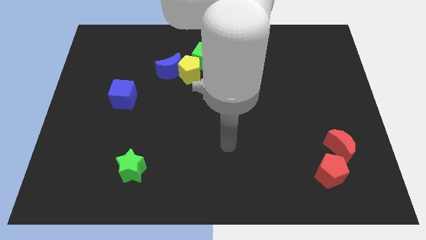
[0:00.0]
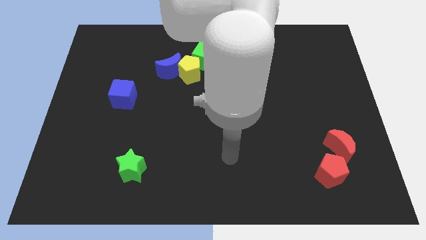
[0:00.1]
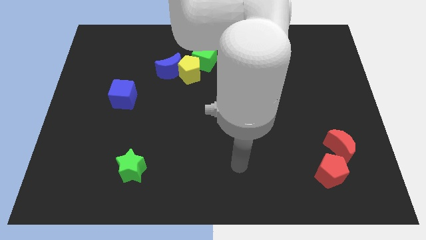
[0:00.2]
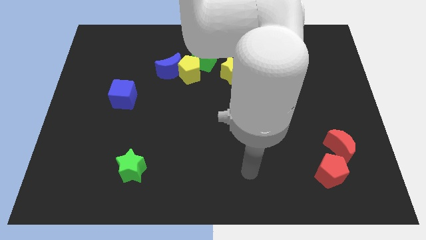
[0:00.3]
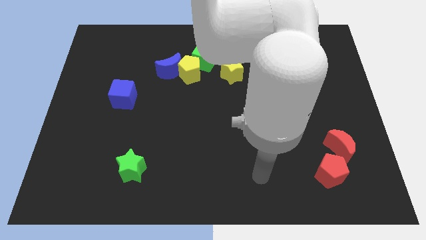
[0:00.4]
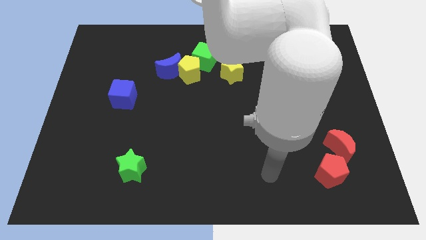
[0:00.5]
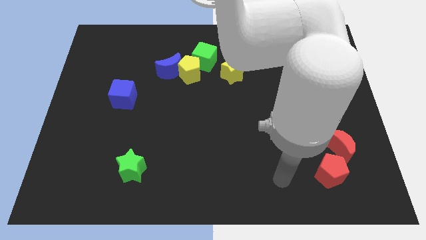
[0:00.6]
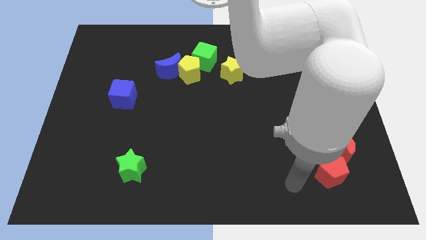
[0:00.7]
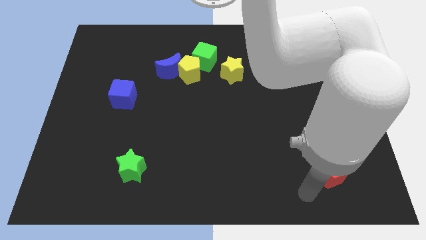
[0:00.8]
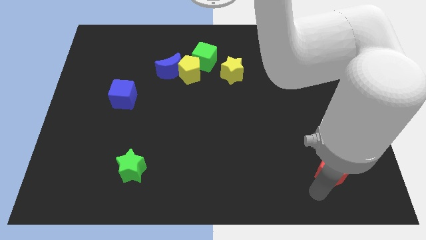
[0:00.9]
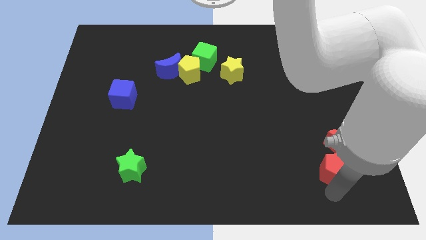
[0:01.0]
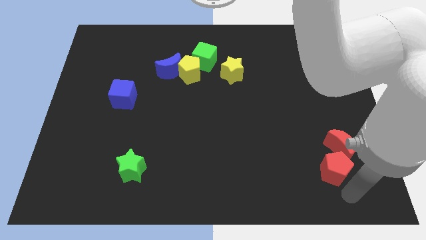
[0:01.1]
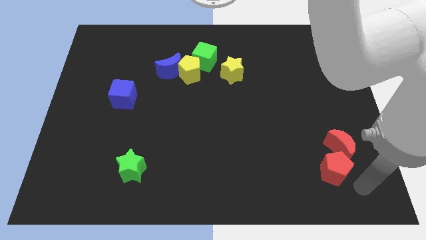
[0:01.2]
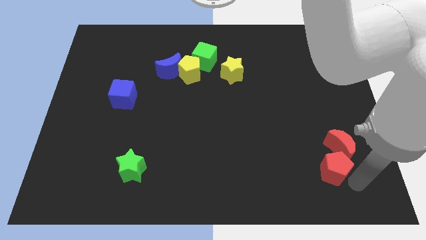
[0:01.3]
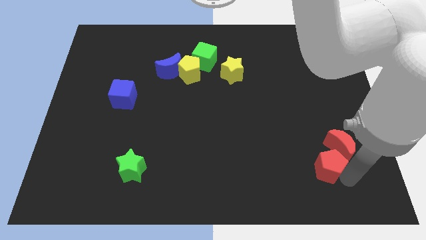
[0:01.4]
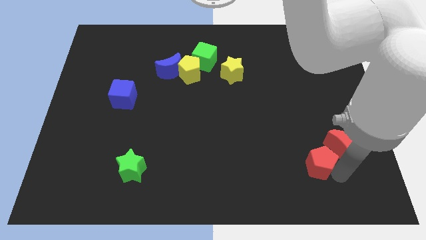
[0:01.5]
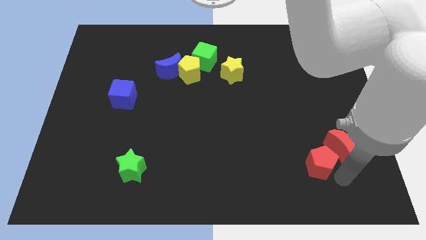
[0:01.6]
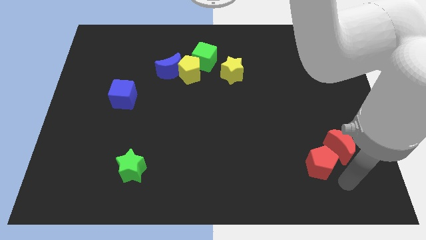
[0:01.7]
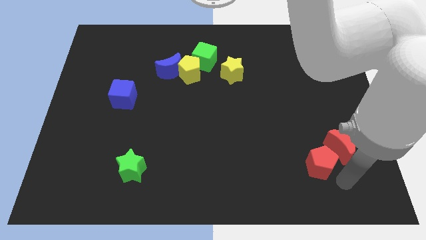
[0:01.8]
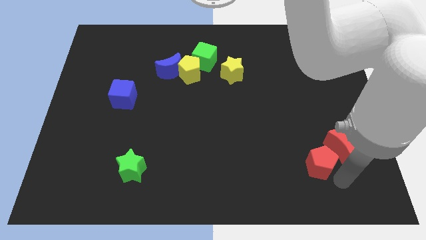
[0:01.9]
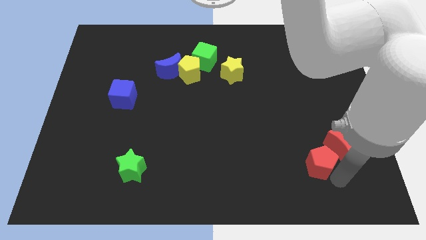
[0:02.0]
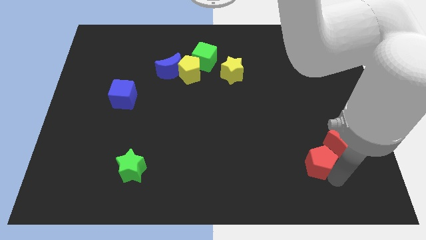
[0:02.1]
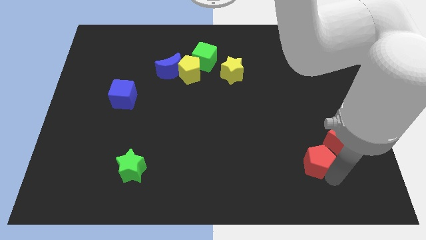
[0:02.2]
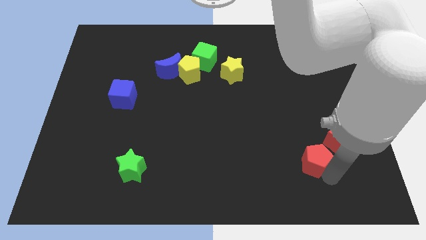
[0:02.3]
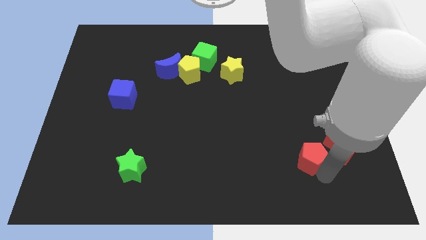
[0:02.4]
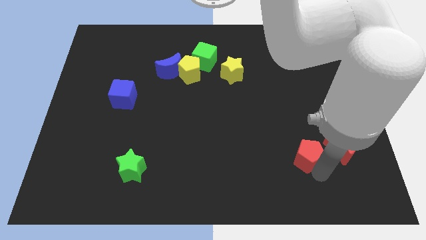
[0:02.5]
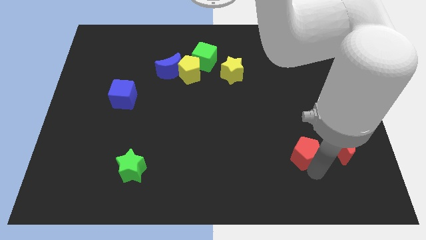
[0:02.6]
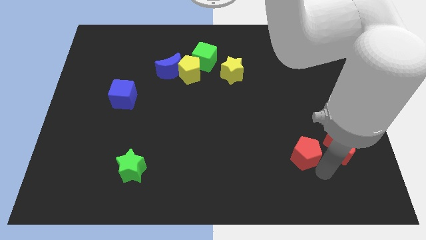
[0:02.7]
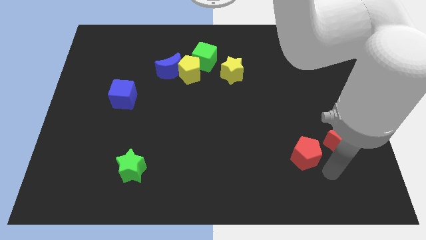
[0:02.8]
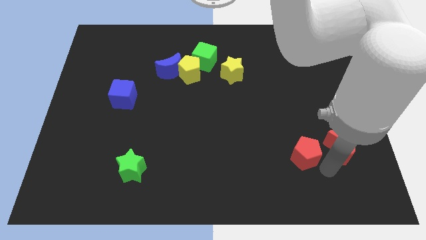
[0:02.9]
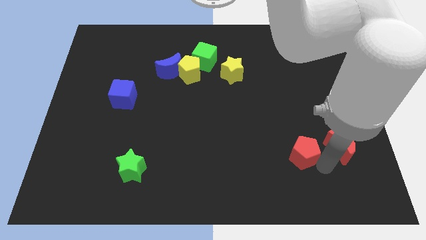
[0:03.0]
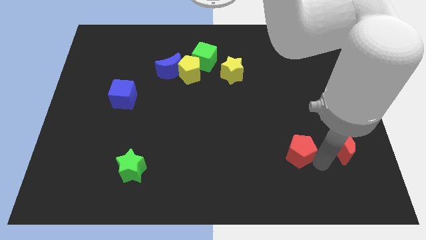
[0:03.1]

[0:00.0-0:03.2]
push the red pentagon upwards and then left a little bit

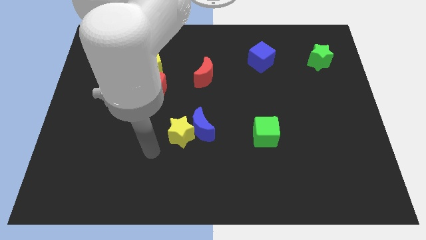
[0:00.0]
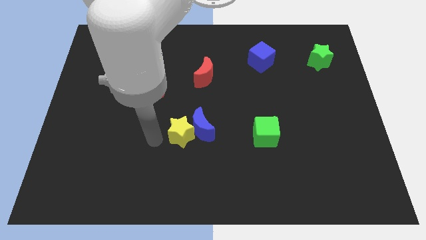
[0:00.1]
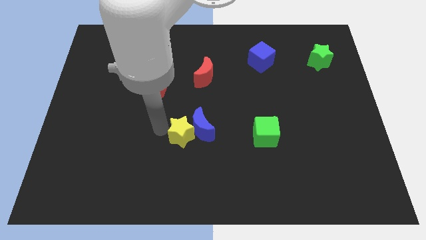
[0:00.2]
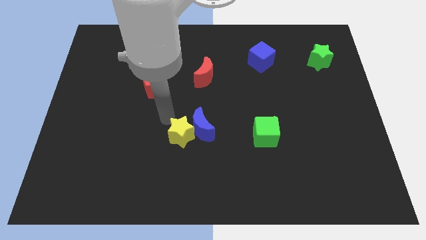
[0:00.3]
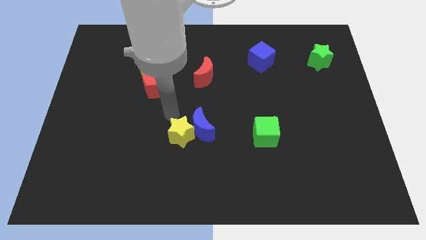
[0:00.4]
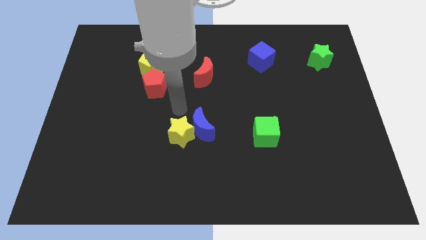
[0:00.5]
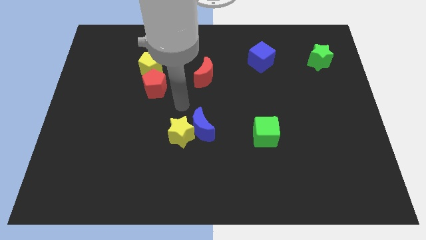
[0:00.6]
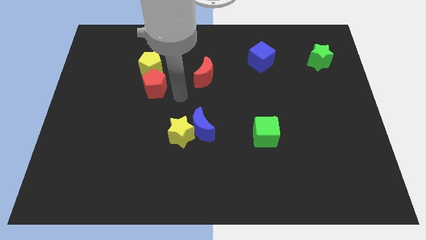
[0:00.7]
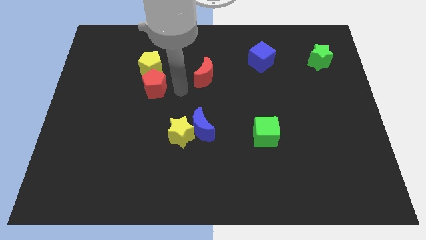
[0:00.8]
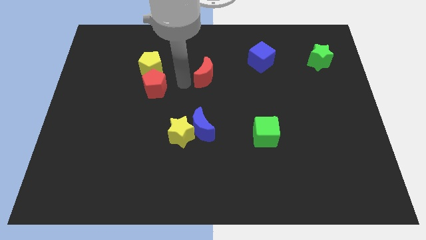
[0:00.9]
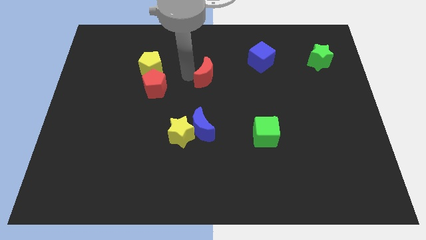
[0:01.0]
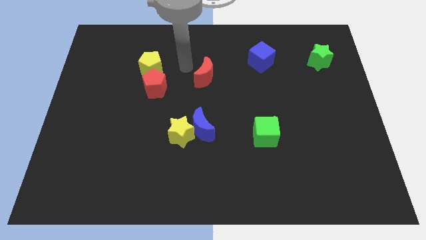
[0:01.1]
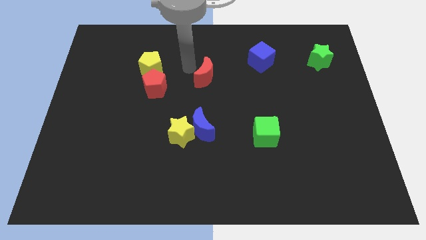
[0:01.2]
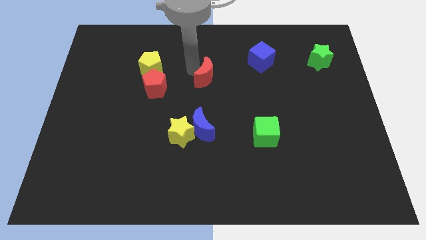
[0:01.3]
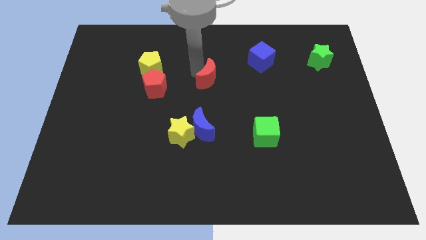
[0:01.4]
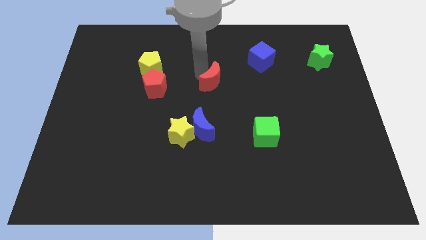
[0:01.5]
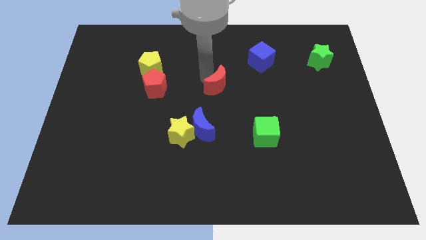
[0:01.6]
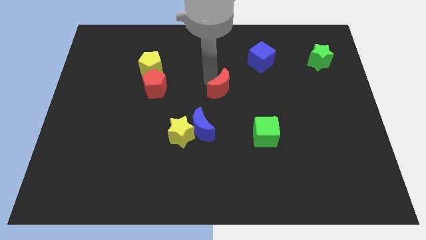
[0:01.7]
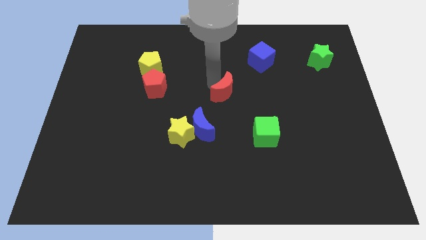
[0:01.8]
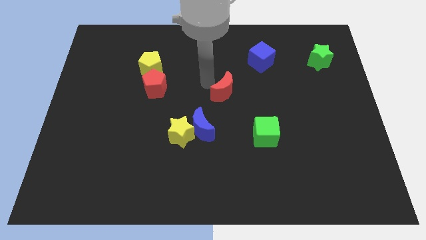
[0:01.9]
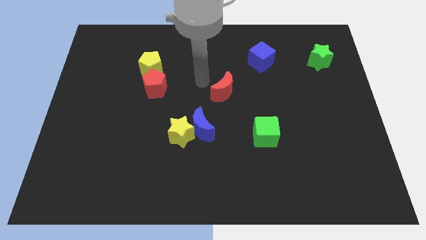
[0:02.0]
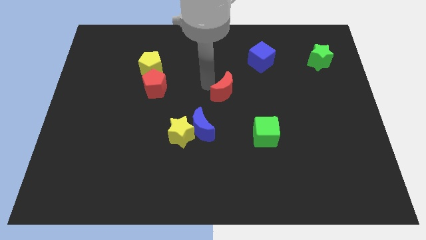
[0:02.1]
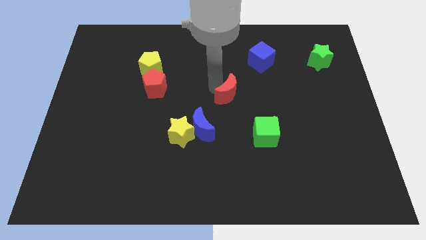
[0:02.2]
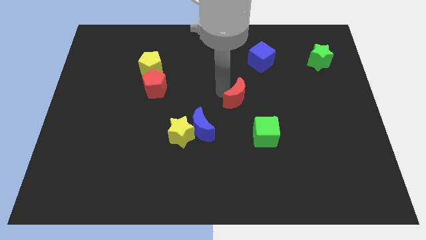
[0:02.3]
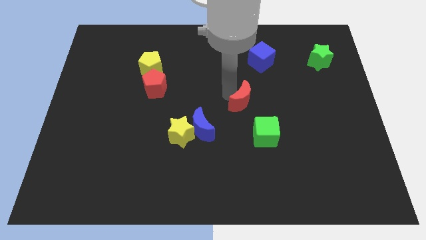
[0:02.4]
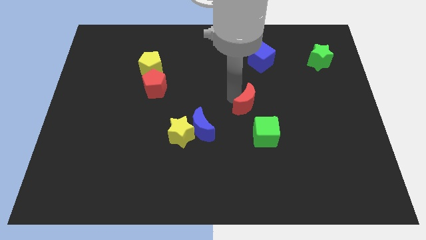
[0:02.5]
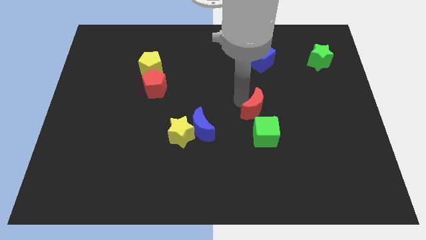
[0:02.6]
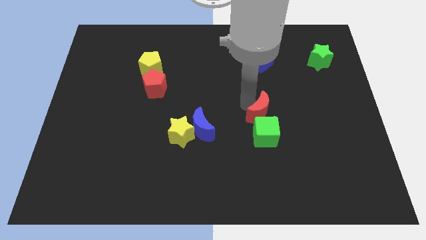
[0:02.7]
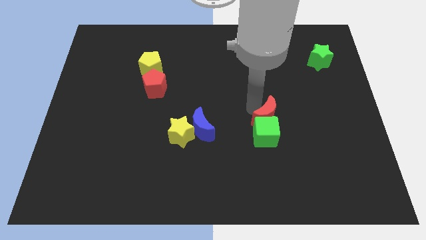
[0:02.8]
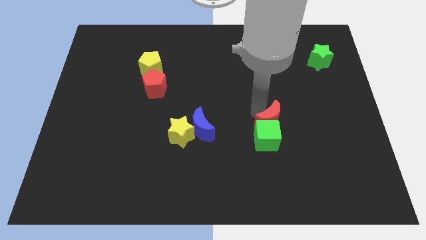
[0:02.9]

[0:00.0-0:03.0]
slide the red moon downwards and right

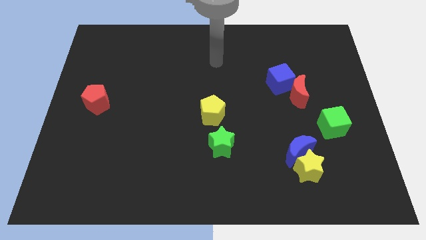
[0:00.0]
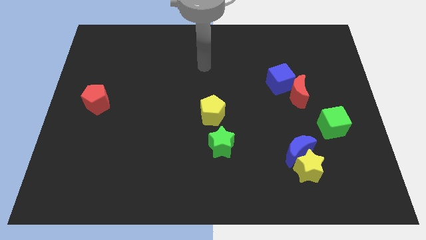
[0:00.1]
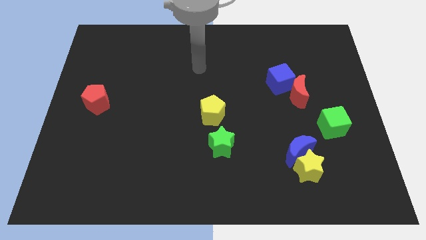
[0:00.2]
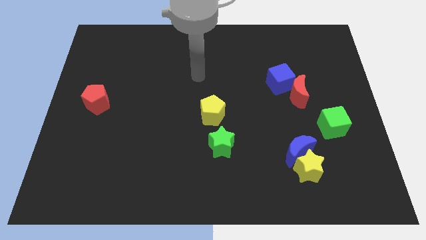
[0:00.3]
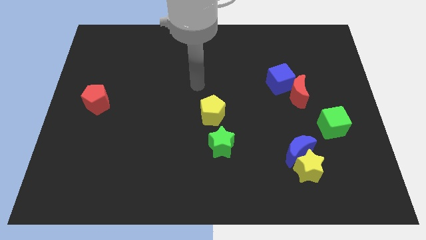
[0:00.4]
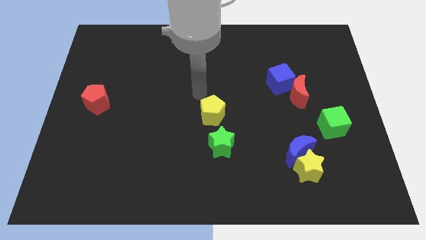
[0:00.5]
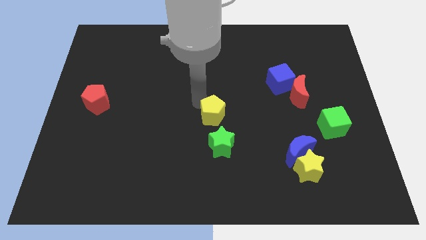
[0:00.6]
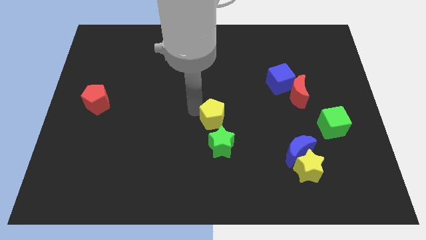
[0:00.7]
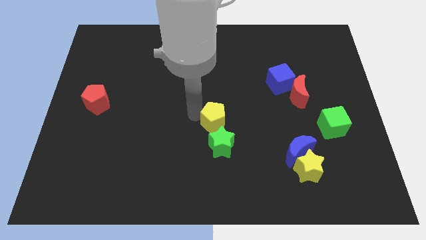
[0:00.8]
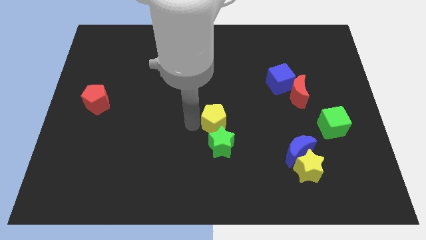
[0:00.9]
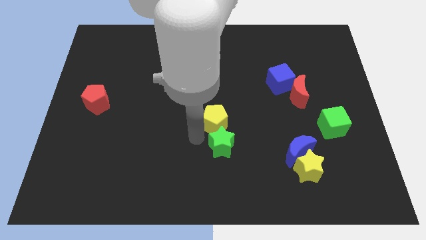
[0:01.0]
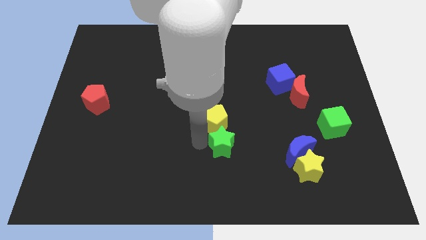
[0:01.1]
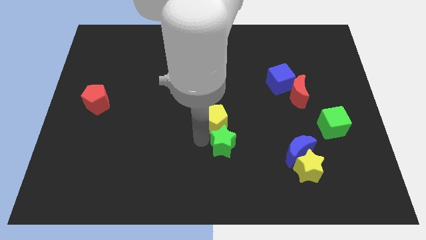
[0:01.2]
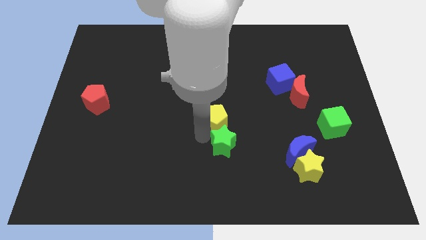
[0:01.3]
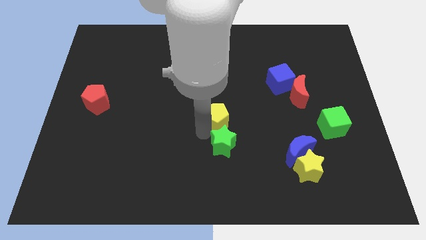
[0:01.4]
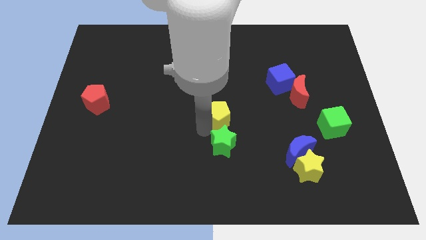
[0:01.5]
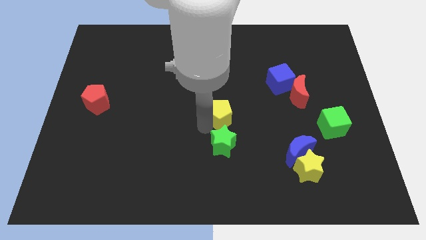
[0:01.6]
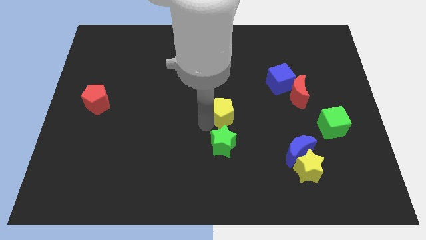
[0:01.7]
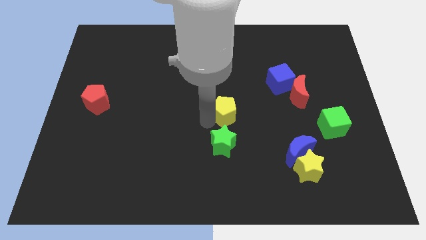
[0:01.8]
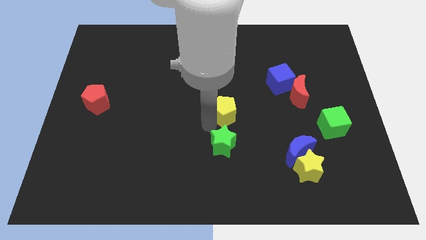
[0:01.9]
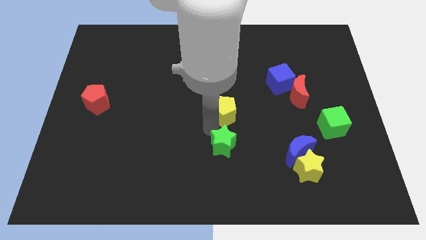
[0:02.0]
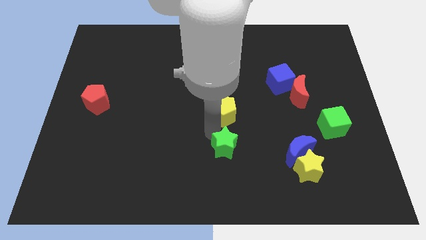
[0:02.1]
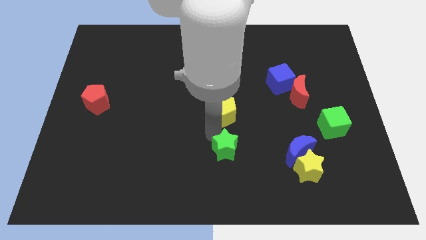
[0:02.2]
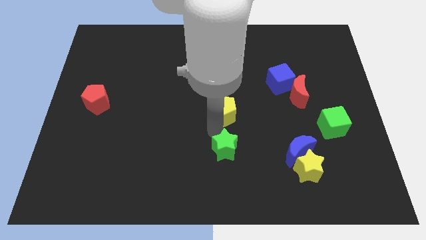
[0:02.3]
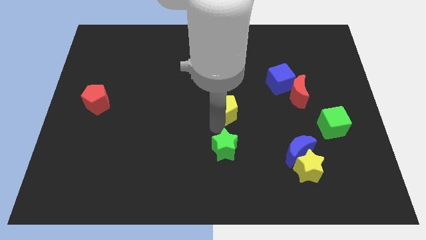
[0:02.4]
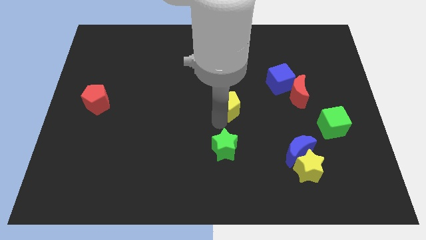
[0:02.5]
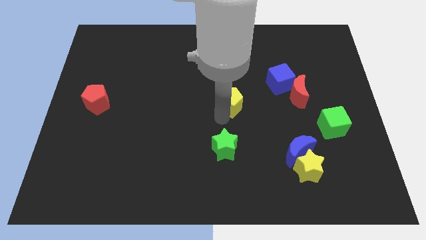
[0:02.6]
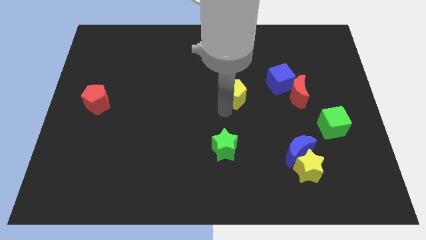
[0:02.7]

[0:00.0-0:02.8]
slide the yellow pentagon a little bit up and then to the right
